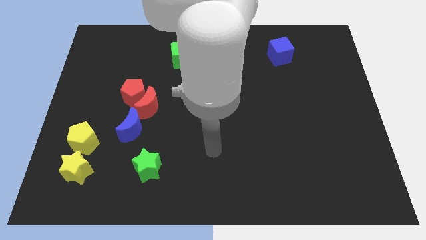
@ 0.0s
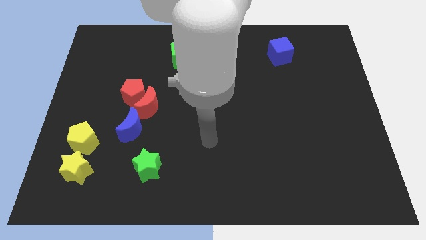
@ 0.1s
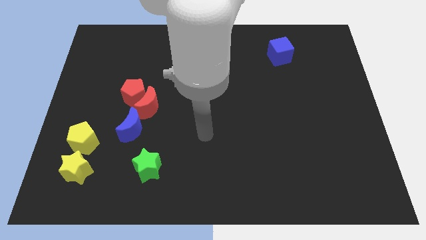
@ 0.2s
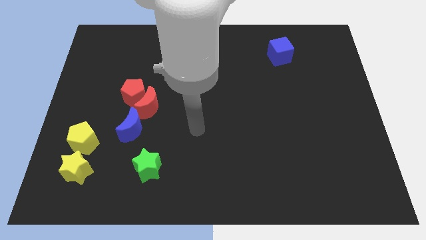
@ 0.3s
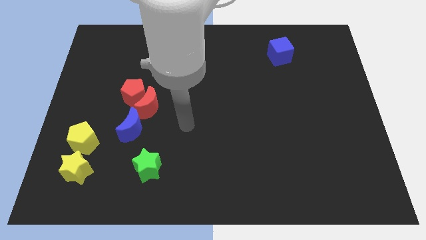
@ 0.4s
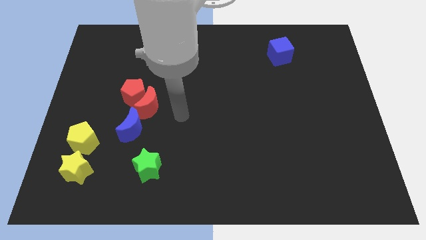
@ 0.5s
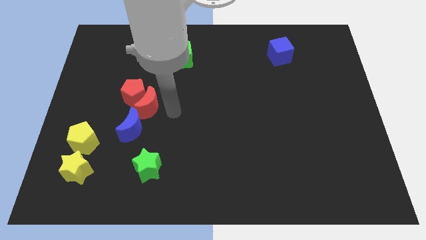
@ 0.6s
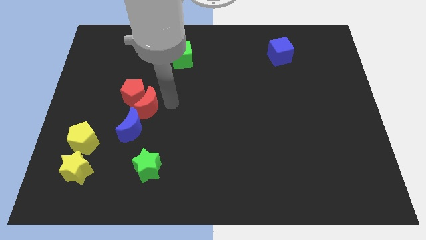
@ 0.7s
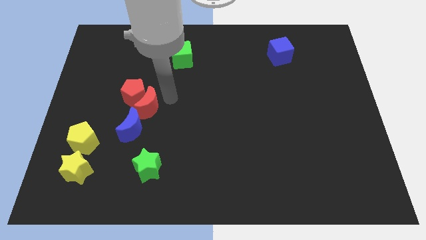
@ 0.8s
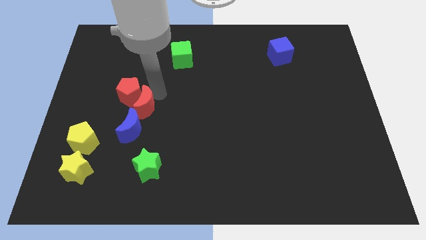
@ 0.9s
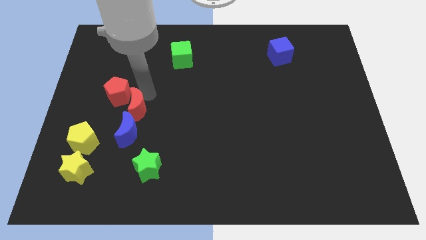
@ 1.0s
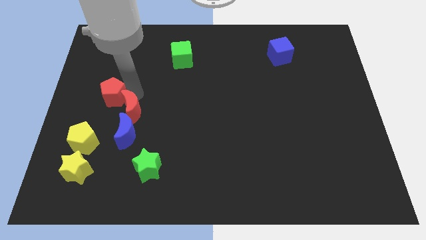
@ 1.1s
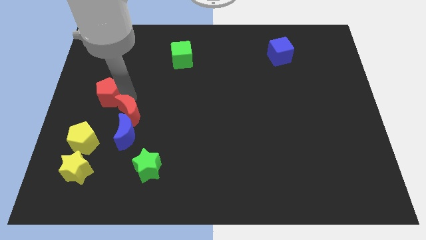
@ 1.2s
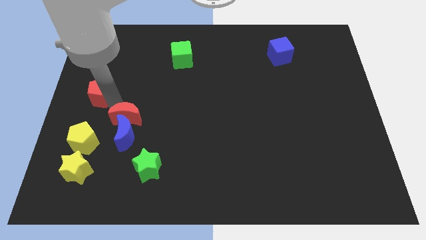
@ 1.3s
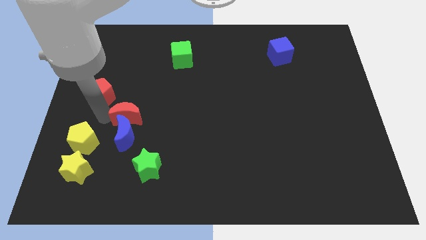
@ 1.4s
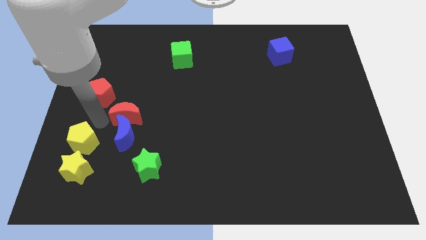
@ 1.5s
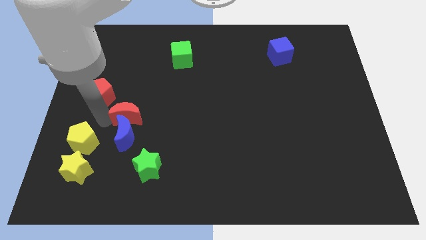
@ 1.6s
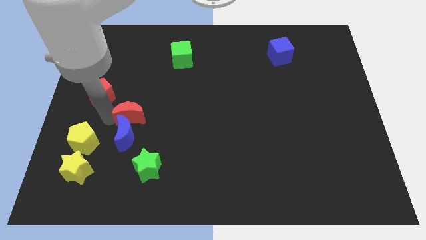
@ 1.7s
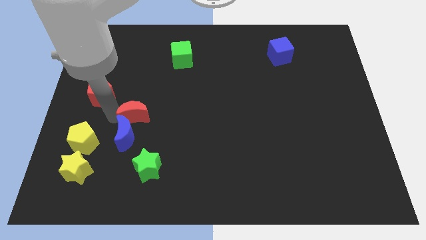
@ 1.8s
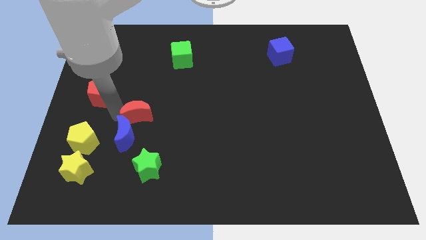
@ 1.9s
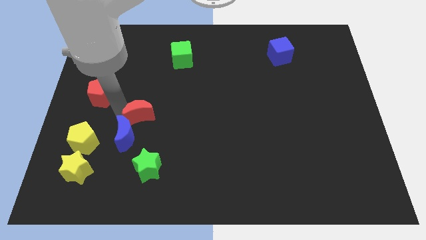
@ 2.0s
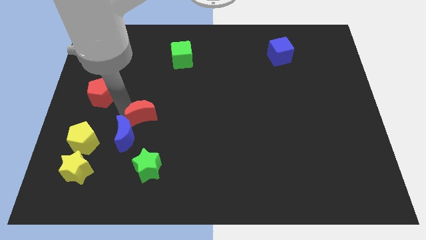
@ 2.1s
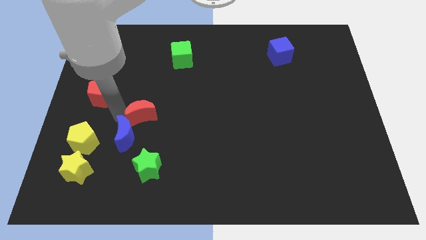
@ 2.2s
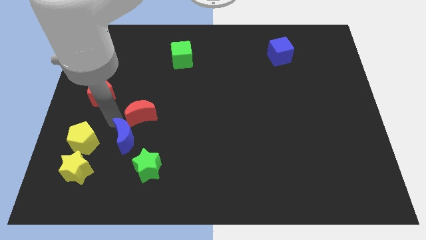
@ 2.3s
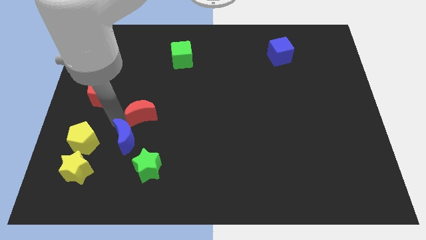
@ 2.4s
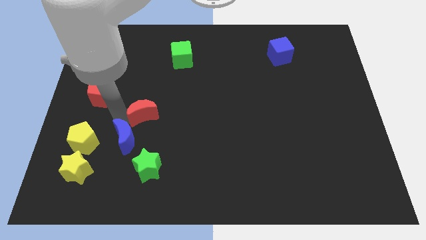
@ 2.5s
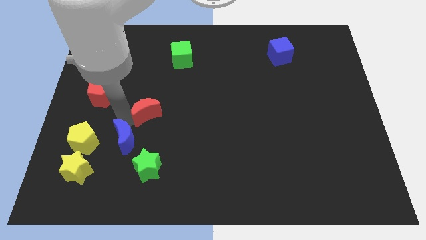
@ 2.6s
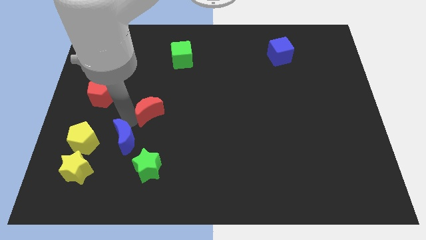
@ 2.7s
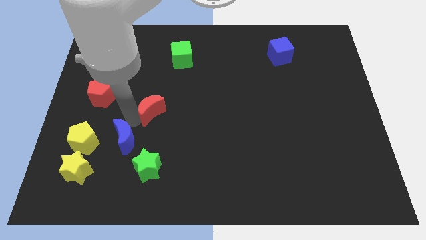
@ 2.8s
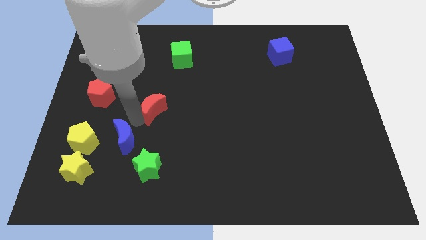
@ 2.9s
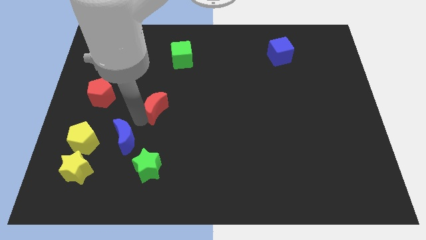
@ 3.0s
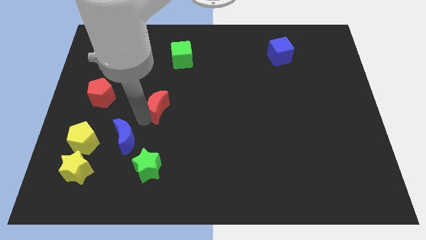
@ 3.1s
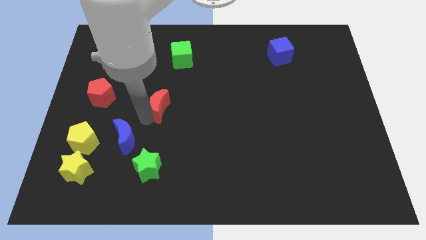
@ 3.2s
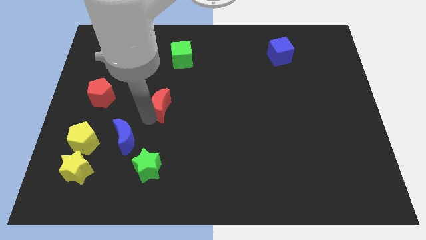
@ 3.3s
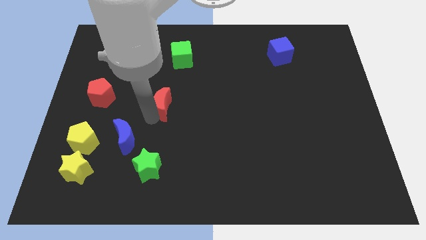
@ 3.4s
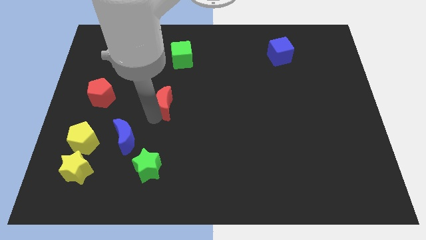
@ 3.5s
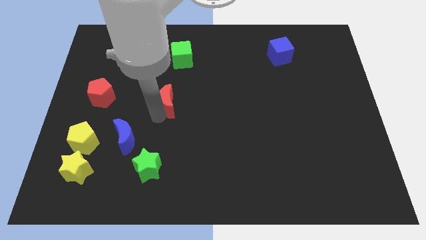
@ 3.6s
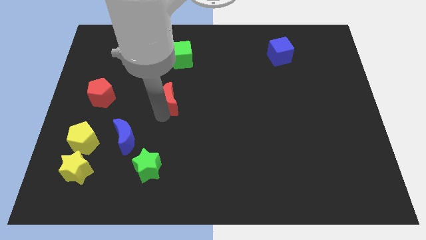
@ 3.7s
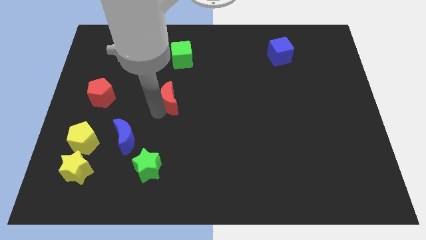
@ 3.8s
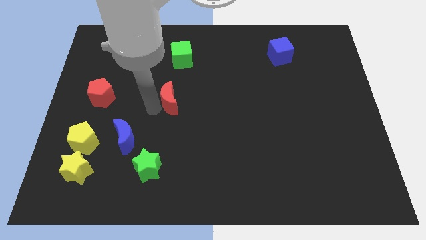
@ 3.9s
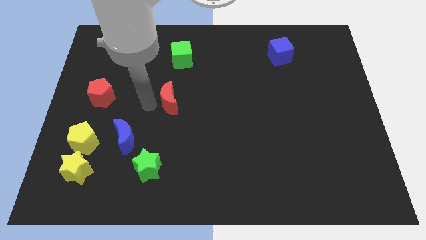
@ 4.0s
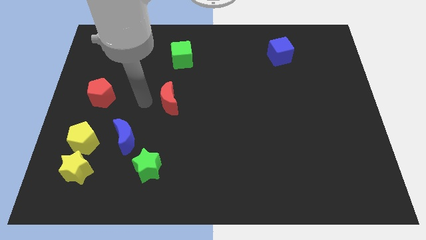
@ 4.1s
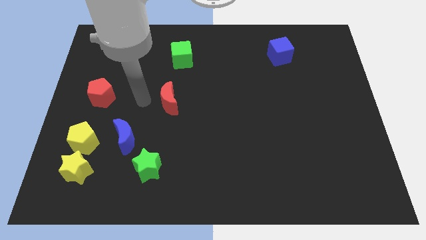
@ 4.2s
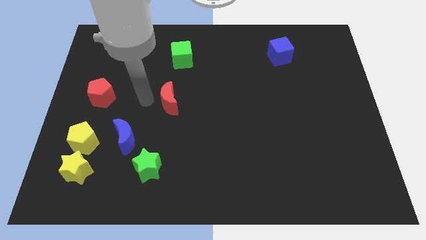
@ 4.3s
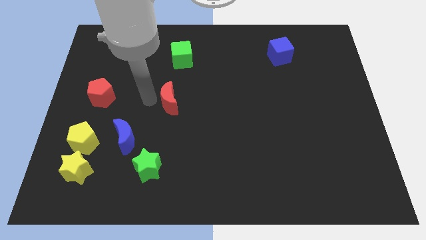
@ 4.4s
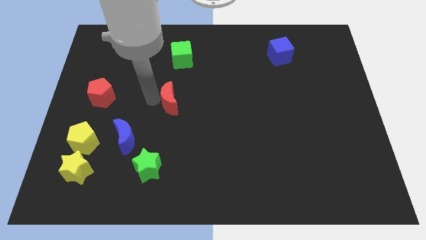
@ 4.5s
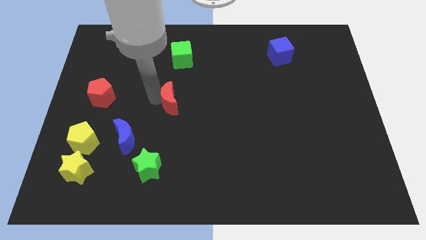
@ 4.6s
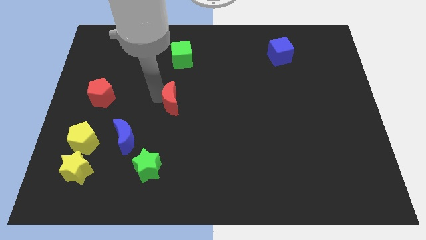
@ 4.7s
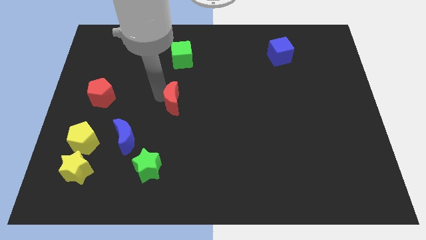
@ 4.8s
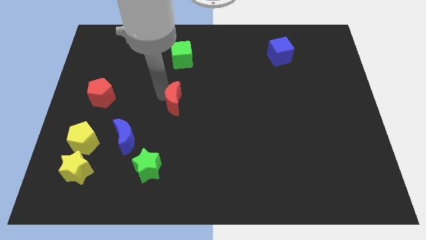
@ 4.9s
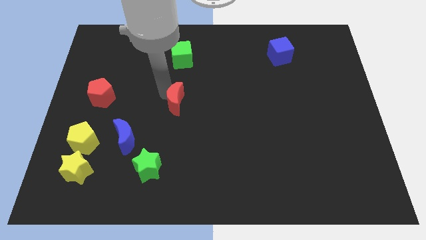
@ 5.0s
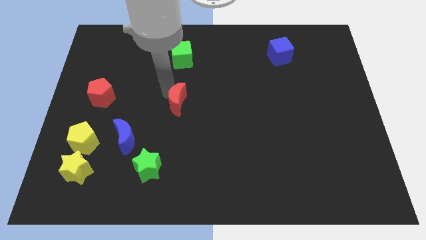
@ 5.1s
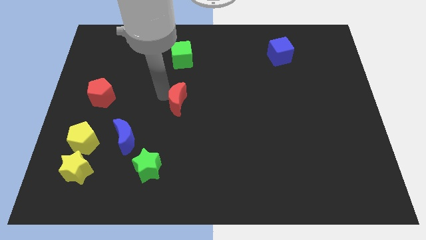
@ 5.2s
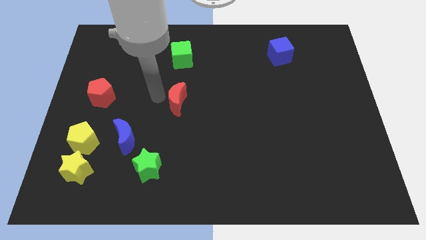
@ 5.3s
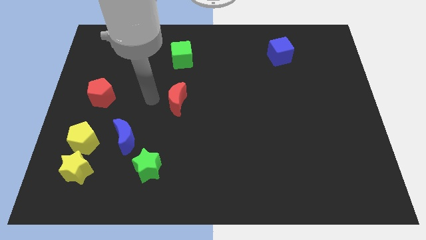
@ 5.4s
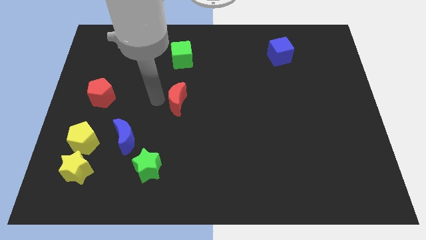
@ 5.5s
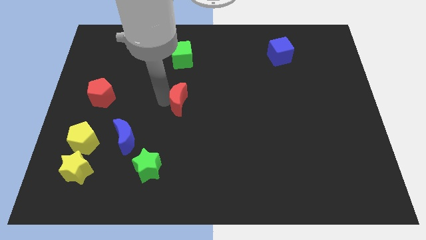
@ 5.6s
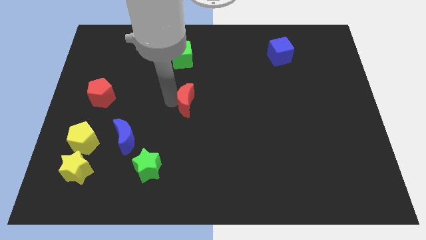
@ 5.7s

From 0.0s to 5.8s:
move the red moon slightly to the right

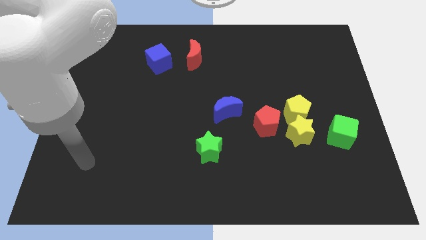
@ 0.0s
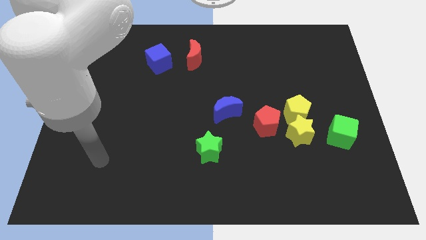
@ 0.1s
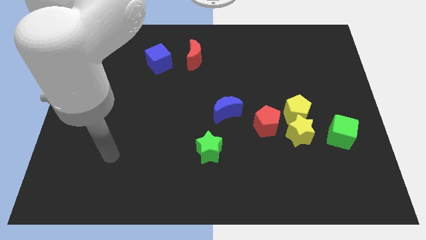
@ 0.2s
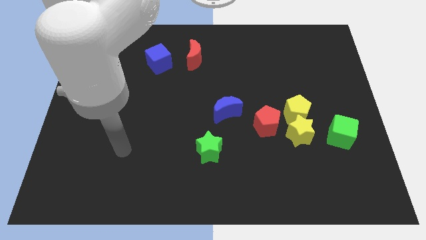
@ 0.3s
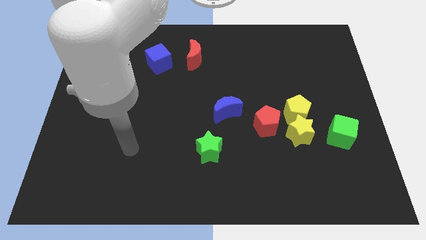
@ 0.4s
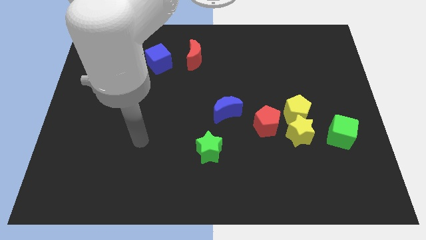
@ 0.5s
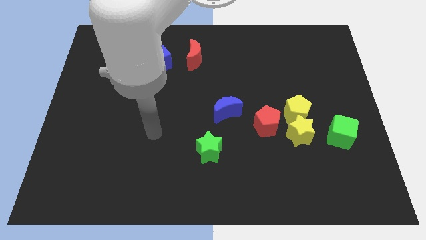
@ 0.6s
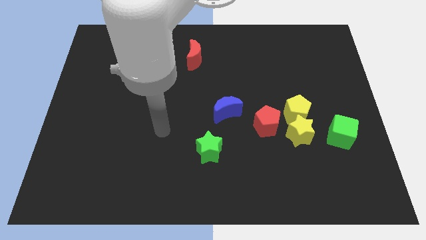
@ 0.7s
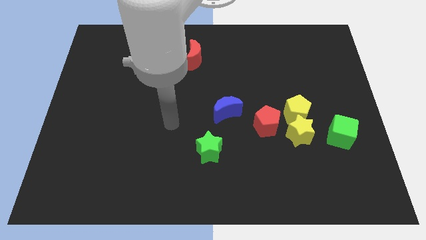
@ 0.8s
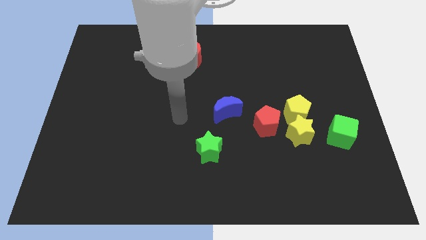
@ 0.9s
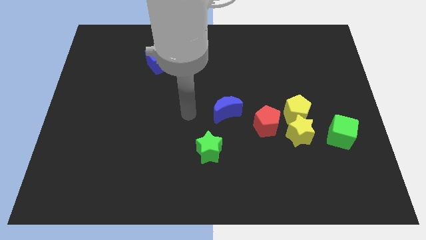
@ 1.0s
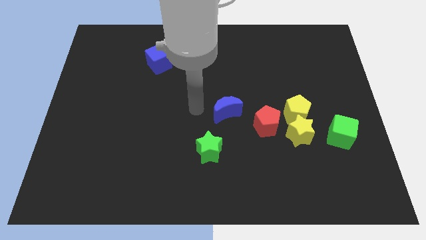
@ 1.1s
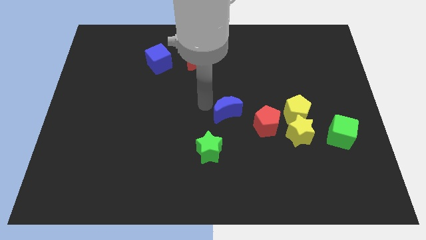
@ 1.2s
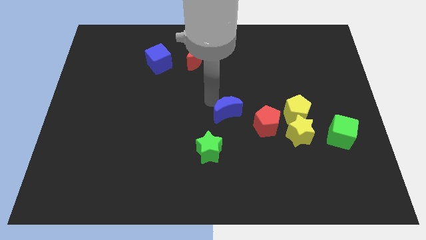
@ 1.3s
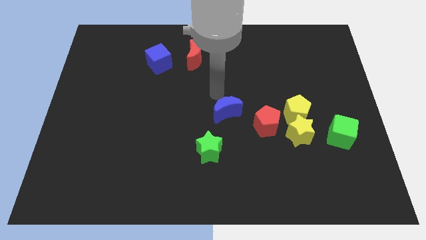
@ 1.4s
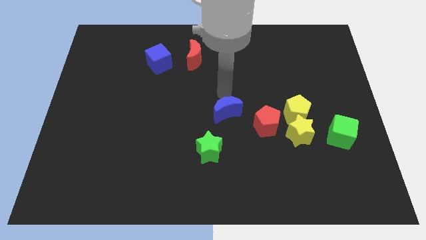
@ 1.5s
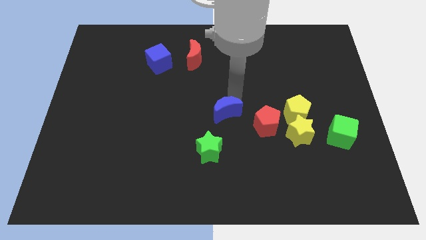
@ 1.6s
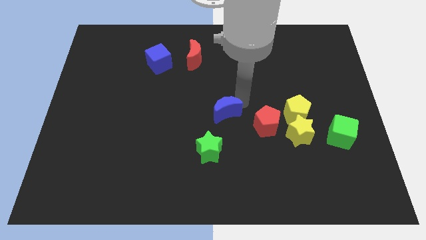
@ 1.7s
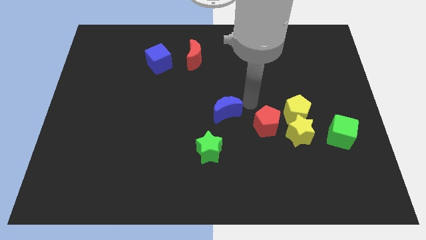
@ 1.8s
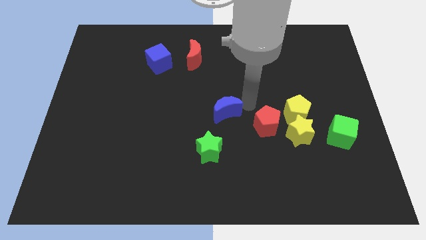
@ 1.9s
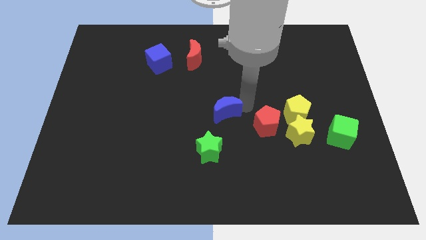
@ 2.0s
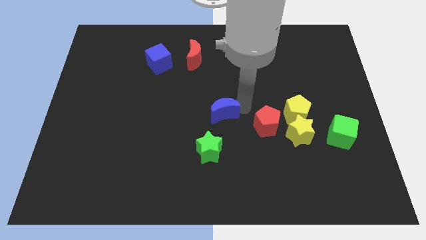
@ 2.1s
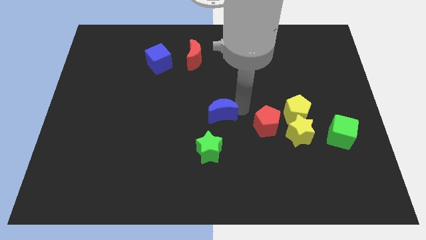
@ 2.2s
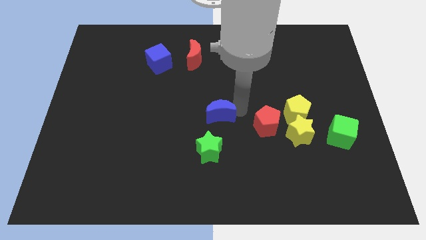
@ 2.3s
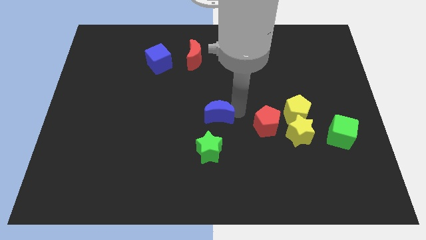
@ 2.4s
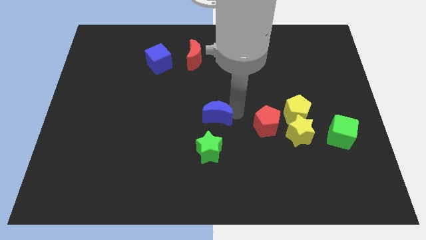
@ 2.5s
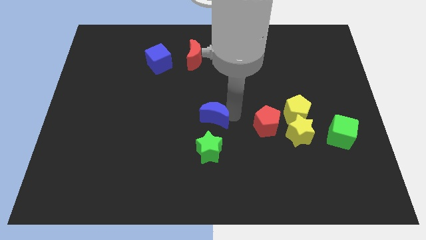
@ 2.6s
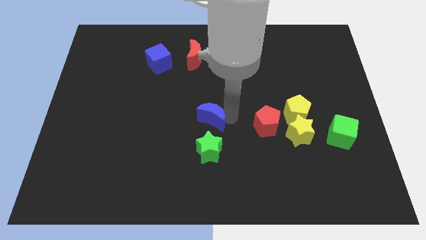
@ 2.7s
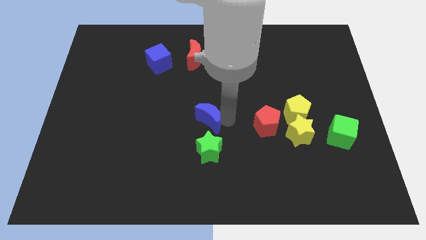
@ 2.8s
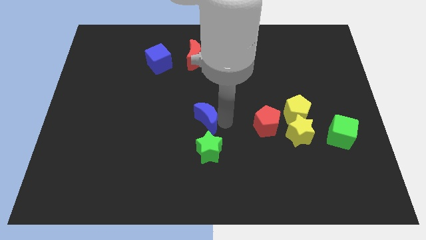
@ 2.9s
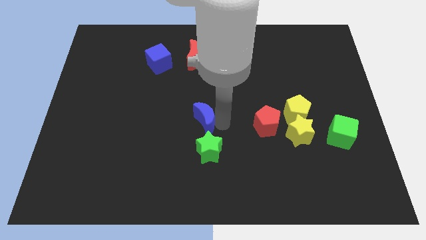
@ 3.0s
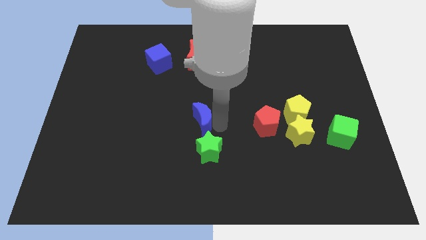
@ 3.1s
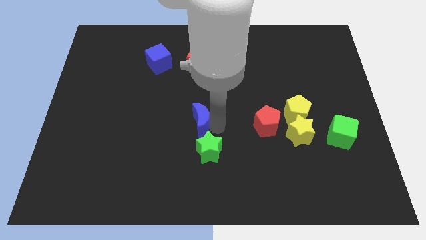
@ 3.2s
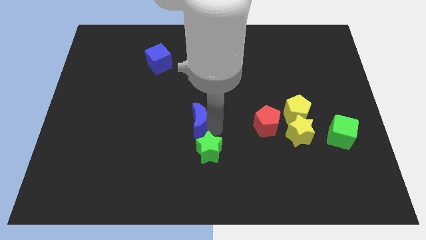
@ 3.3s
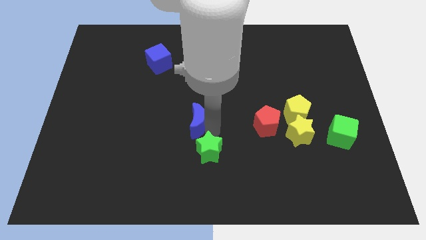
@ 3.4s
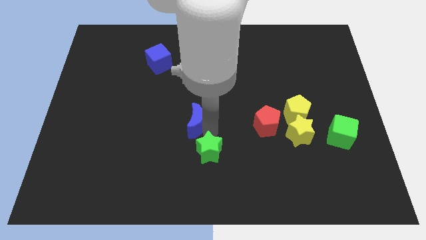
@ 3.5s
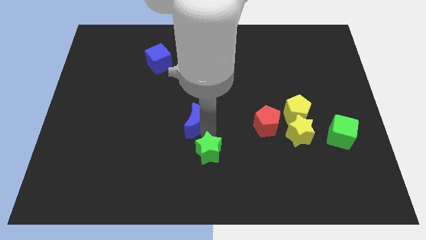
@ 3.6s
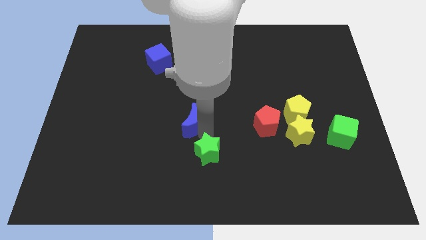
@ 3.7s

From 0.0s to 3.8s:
slightly move the blue moon to the left
